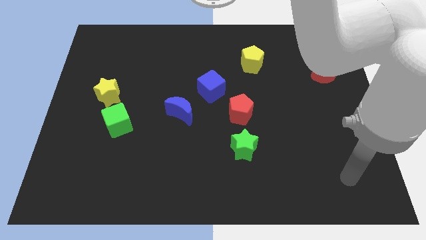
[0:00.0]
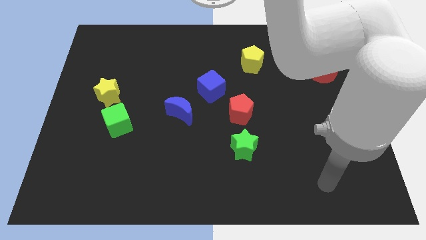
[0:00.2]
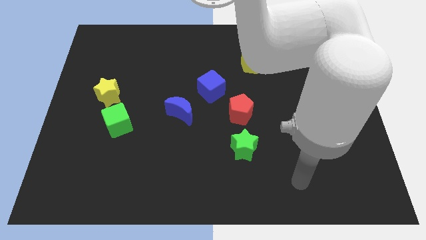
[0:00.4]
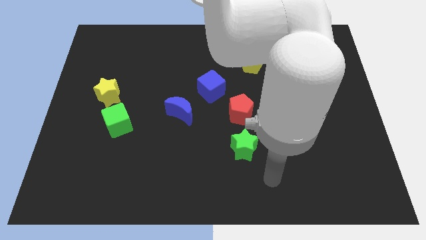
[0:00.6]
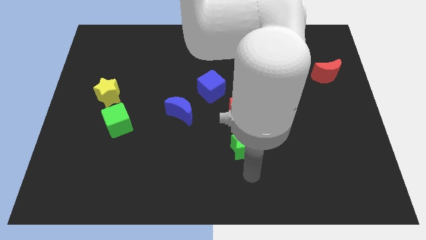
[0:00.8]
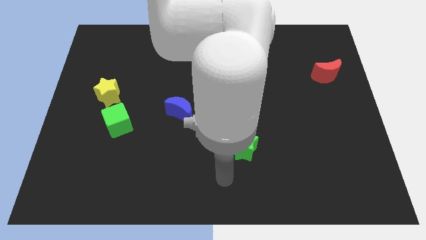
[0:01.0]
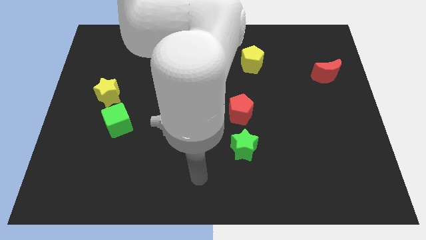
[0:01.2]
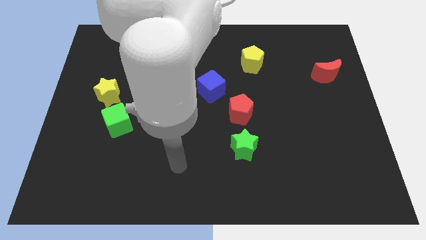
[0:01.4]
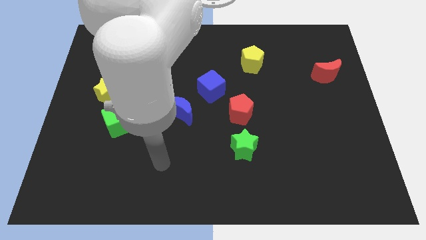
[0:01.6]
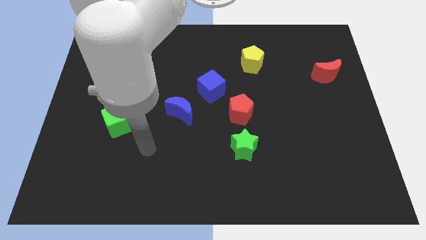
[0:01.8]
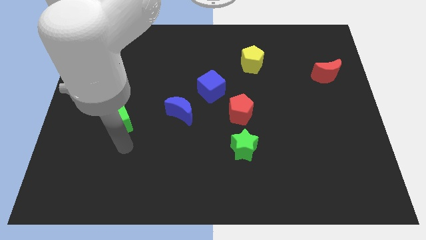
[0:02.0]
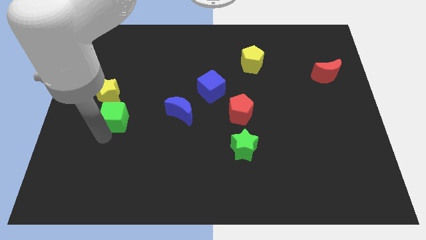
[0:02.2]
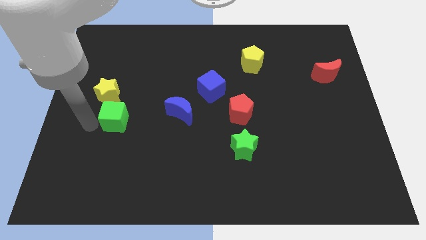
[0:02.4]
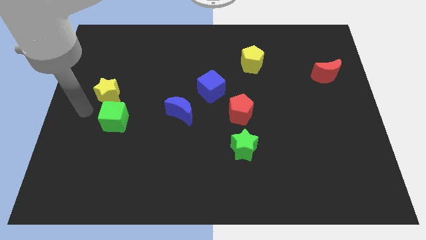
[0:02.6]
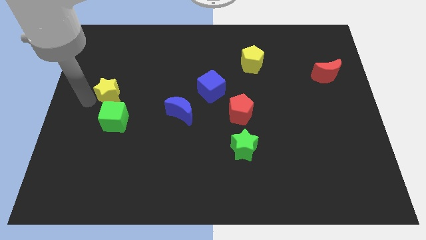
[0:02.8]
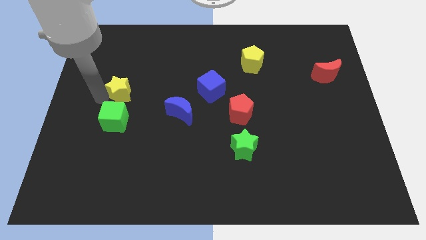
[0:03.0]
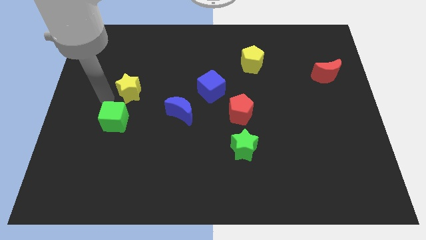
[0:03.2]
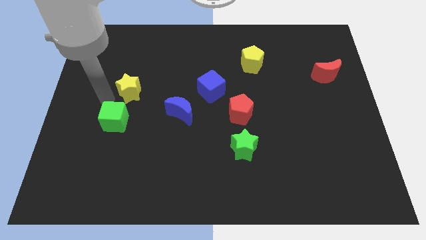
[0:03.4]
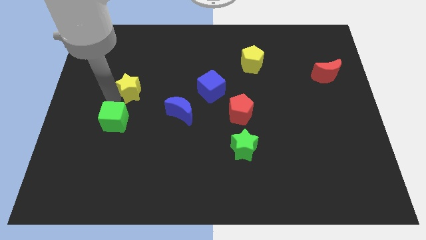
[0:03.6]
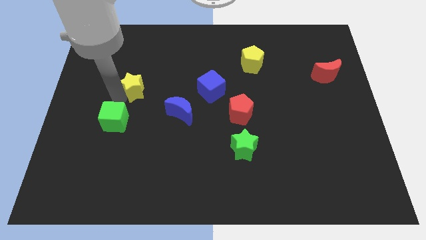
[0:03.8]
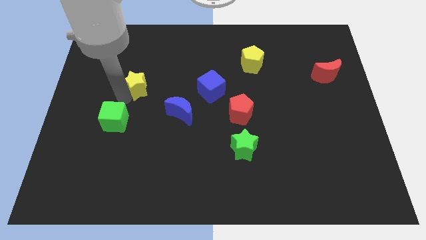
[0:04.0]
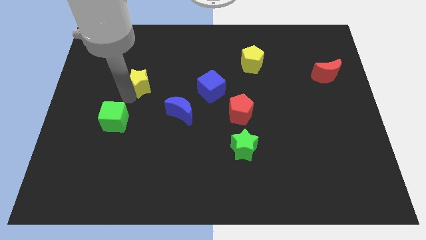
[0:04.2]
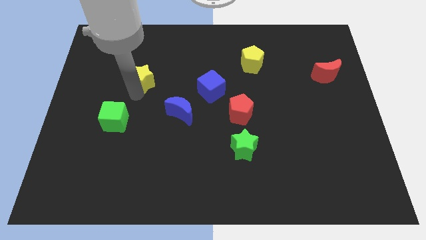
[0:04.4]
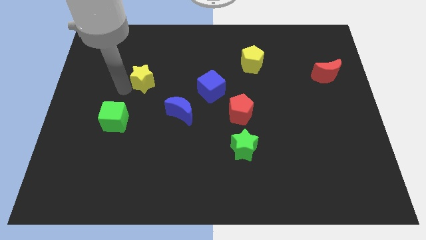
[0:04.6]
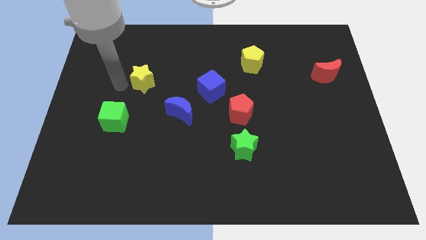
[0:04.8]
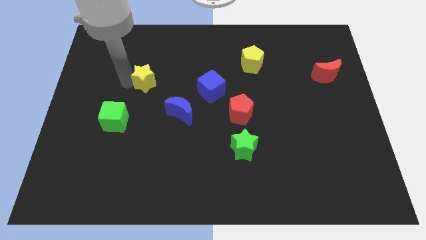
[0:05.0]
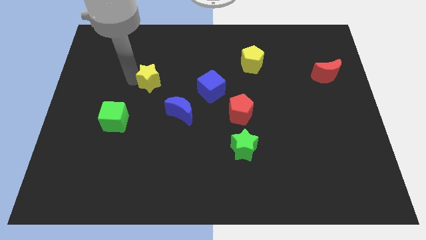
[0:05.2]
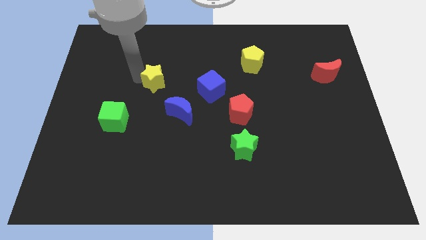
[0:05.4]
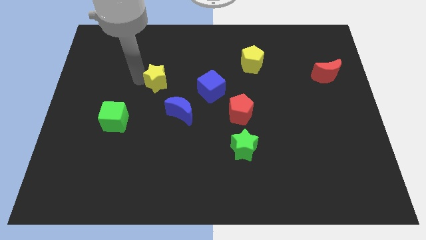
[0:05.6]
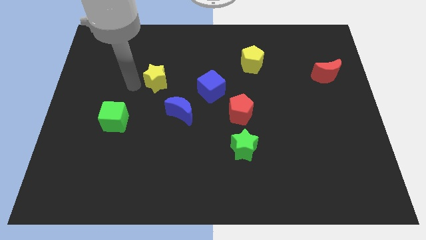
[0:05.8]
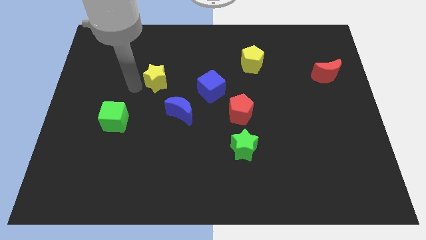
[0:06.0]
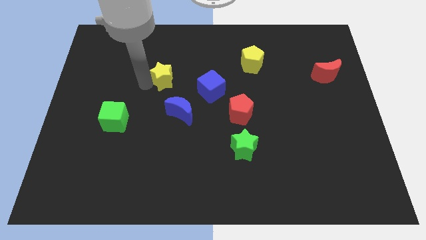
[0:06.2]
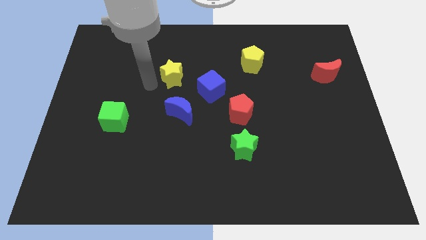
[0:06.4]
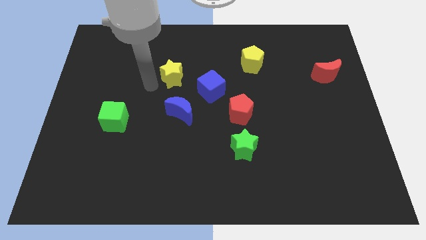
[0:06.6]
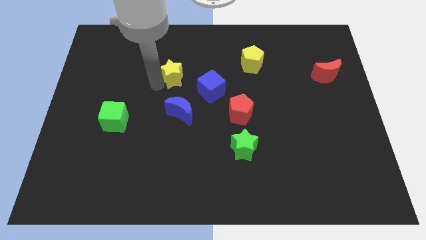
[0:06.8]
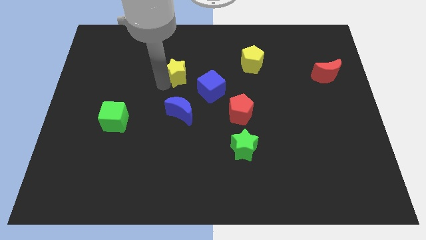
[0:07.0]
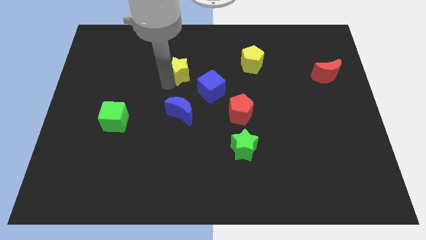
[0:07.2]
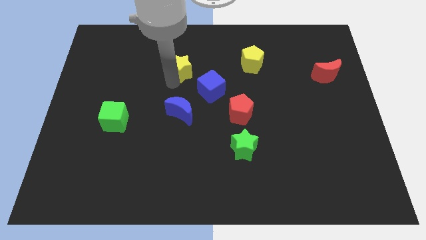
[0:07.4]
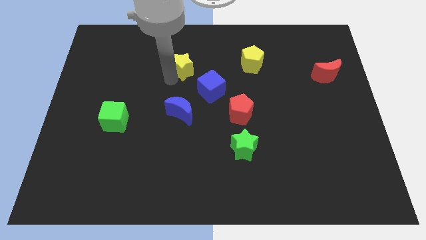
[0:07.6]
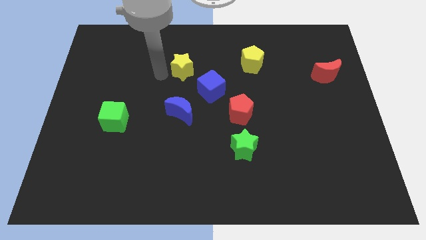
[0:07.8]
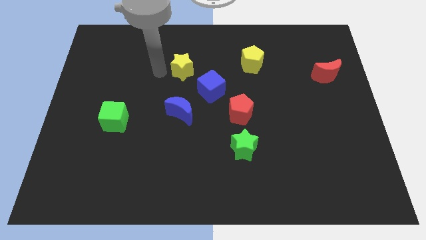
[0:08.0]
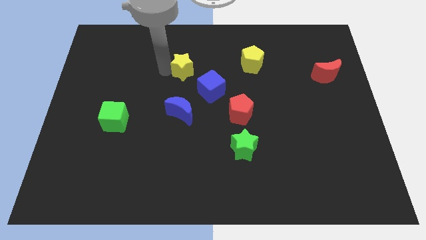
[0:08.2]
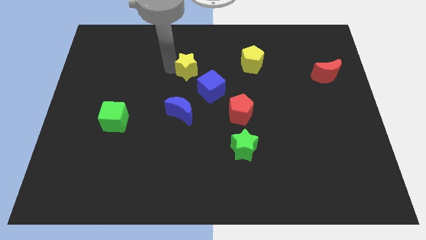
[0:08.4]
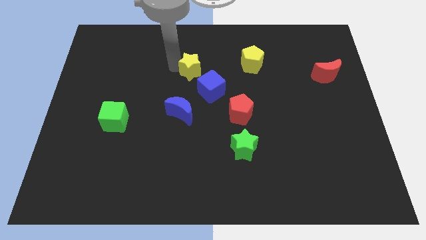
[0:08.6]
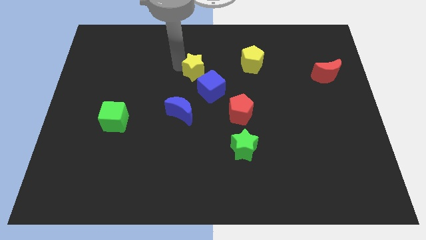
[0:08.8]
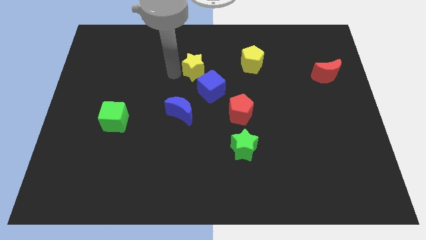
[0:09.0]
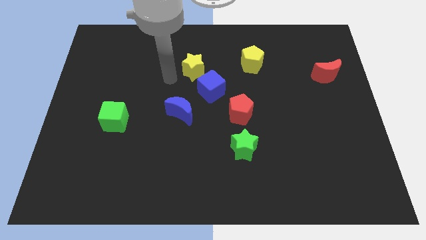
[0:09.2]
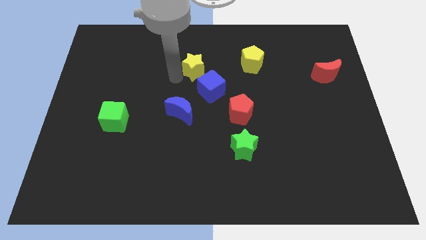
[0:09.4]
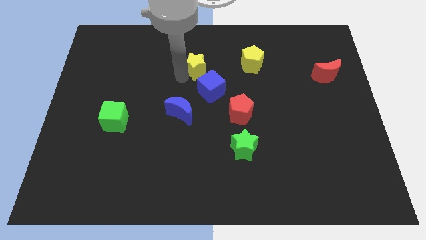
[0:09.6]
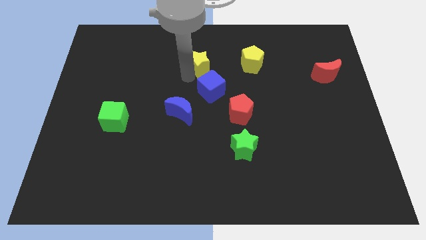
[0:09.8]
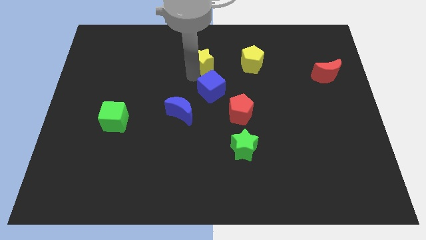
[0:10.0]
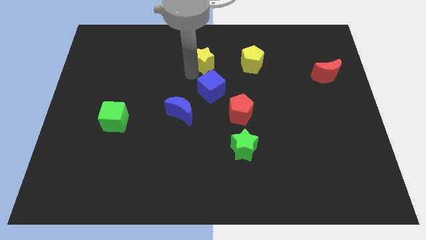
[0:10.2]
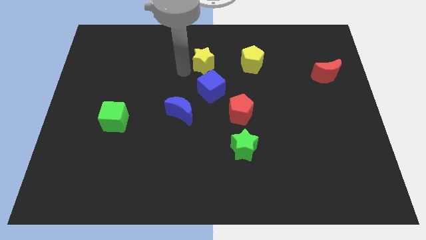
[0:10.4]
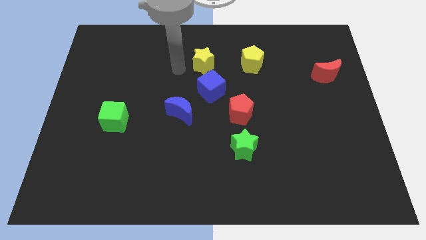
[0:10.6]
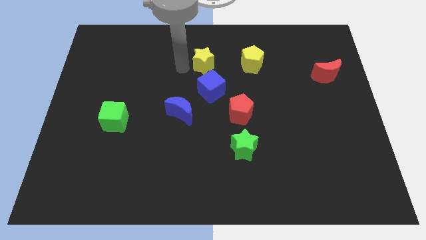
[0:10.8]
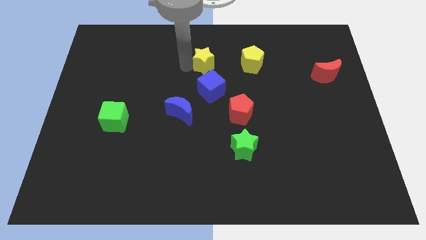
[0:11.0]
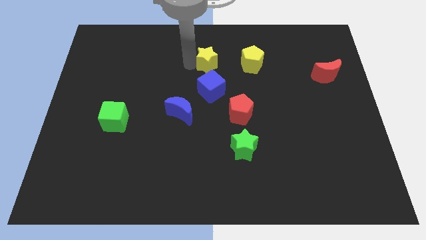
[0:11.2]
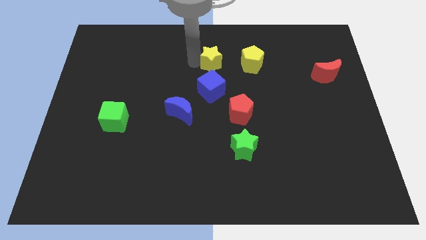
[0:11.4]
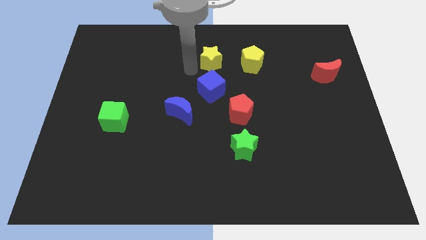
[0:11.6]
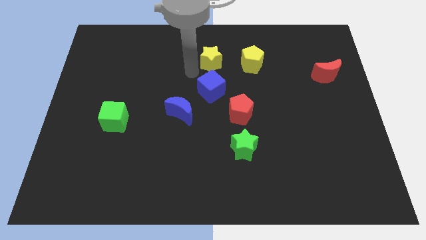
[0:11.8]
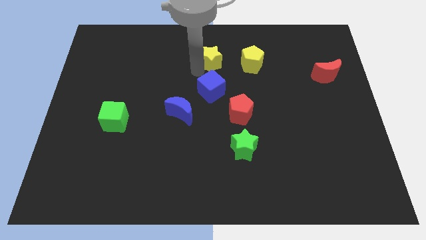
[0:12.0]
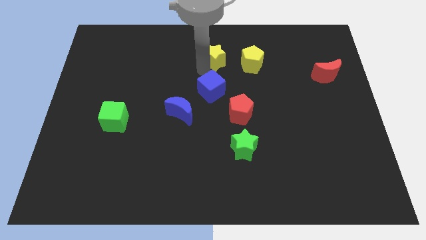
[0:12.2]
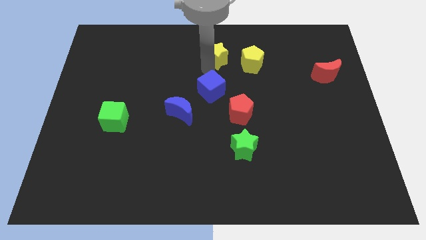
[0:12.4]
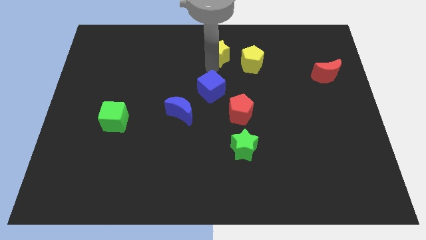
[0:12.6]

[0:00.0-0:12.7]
put the yellow star to the top

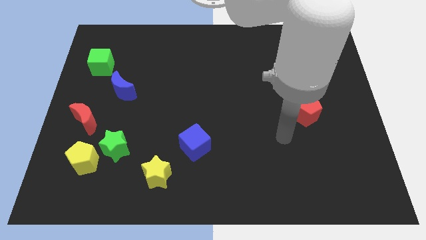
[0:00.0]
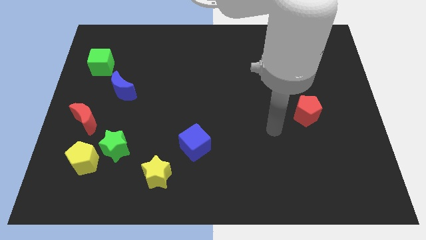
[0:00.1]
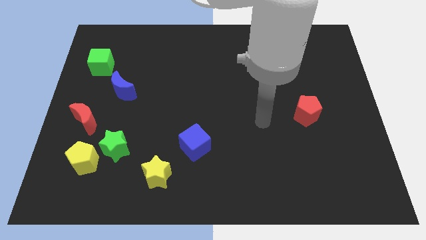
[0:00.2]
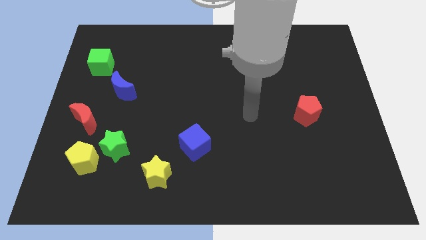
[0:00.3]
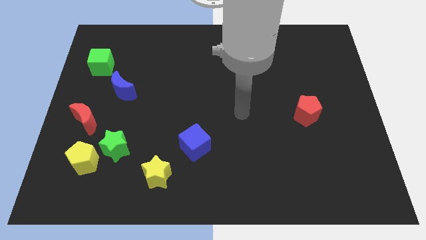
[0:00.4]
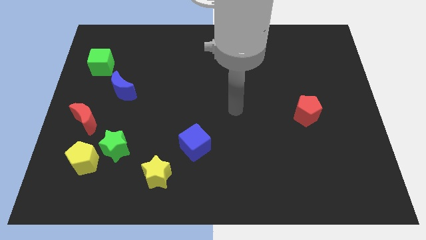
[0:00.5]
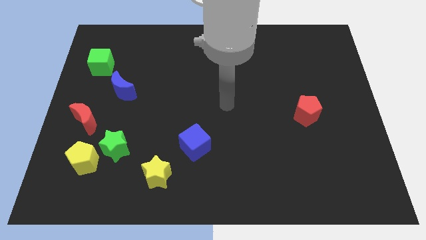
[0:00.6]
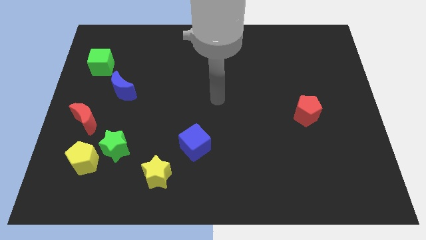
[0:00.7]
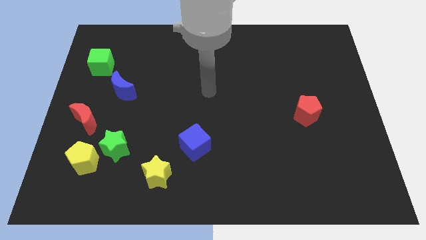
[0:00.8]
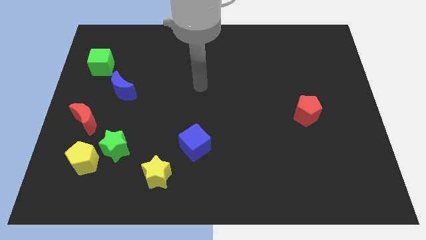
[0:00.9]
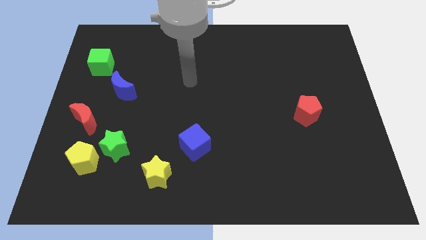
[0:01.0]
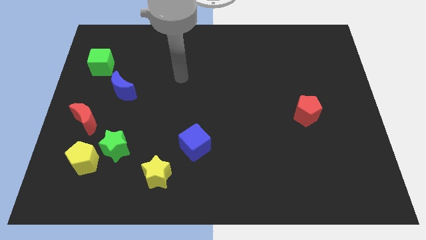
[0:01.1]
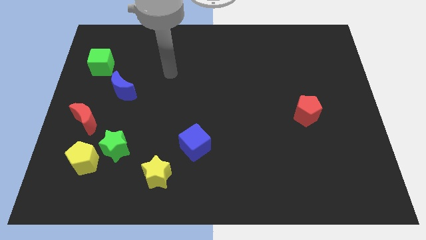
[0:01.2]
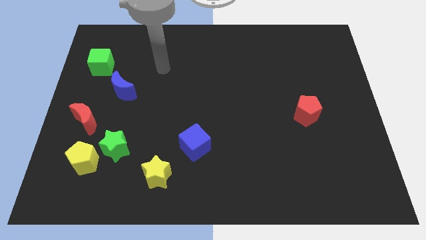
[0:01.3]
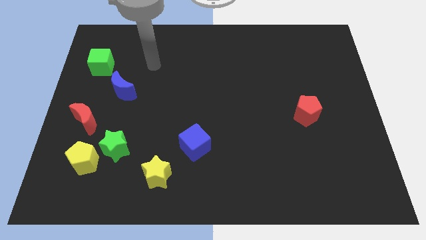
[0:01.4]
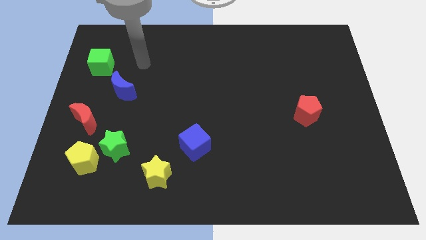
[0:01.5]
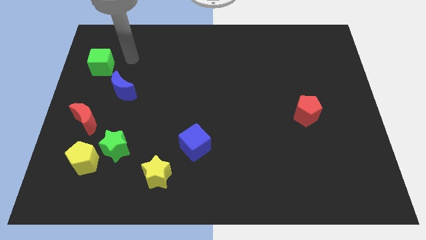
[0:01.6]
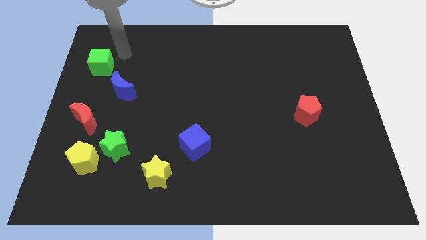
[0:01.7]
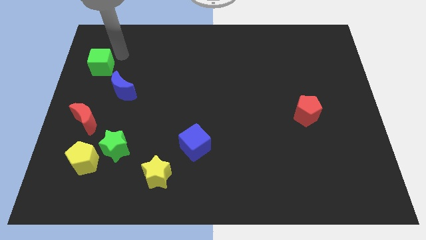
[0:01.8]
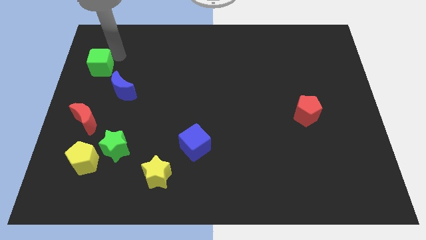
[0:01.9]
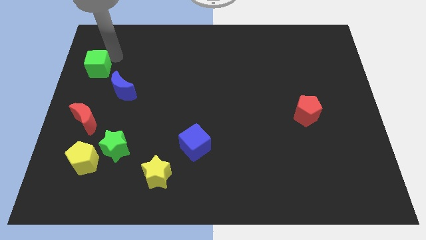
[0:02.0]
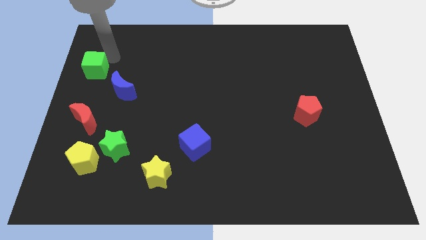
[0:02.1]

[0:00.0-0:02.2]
put the green cube to the left side
